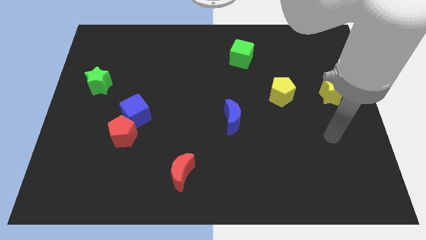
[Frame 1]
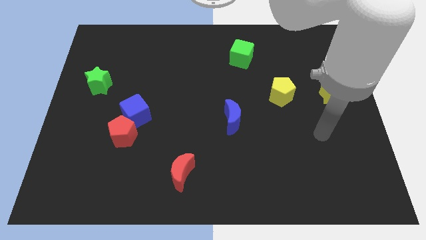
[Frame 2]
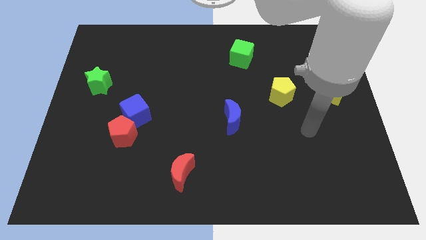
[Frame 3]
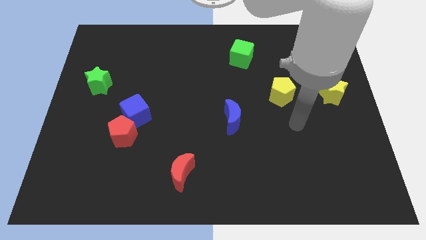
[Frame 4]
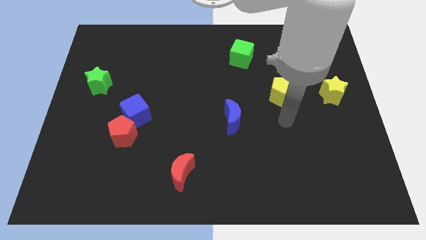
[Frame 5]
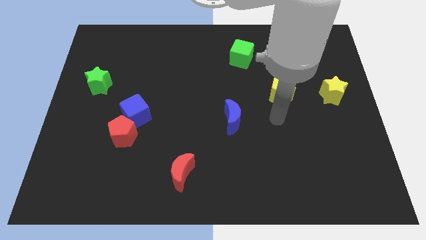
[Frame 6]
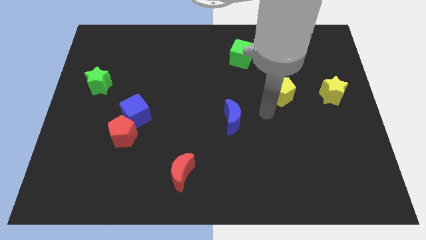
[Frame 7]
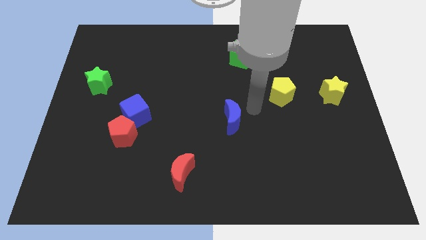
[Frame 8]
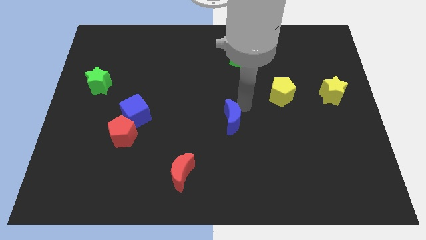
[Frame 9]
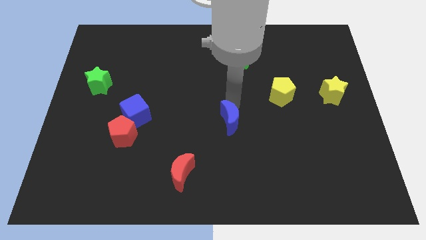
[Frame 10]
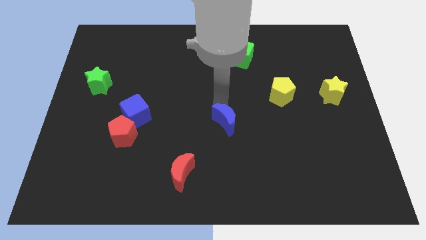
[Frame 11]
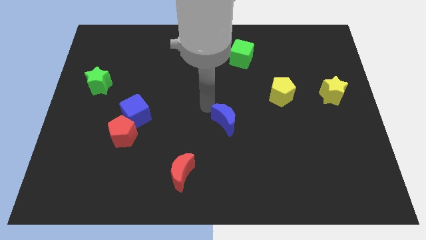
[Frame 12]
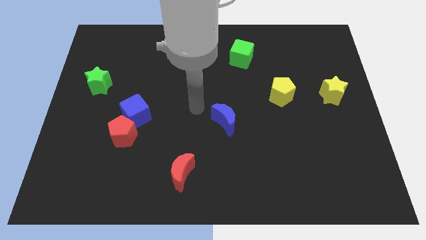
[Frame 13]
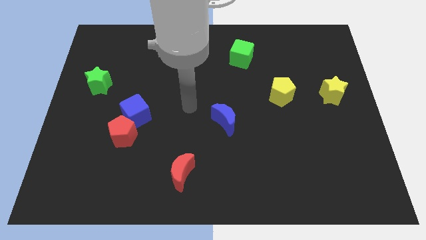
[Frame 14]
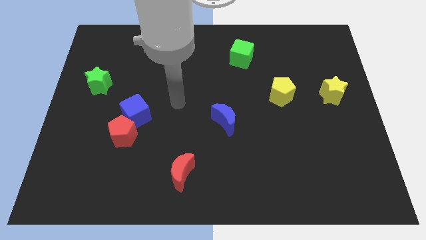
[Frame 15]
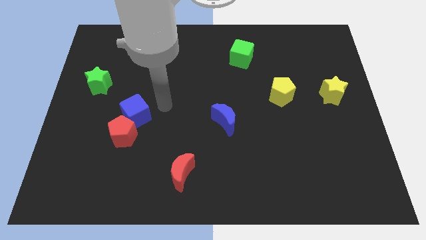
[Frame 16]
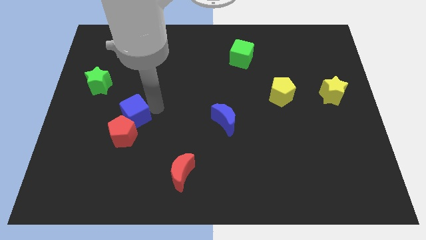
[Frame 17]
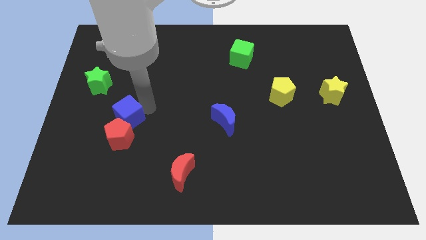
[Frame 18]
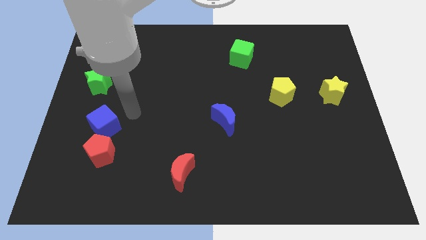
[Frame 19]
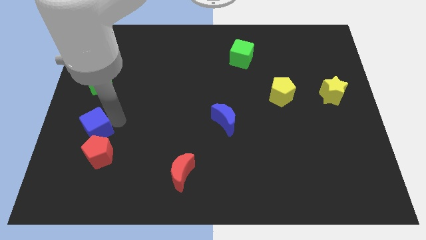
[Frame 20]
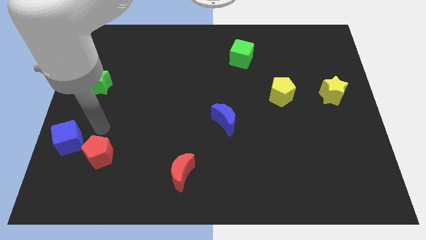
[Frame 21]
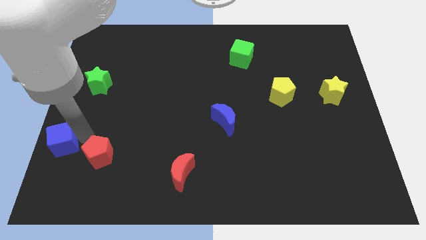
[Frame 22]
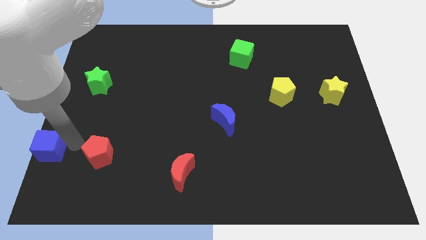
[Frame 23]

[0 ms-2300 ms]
separate the red pentagon from the blue cube

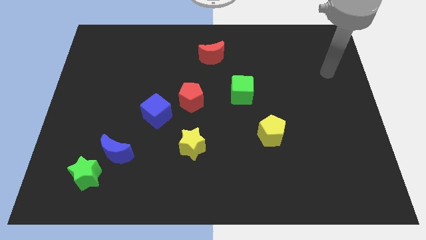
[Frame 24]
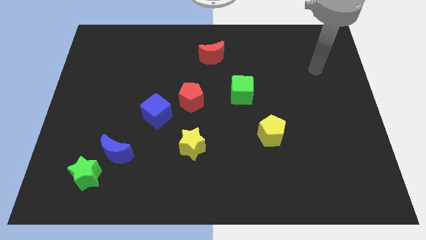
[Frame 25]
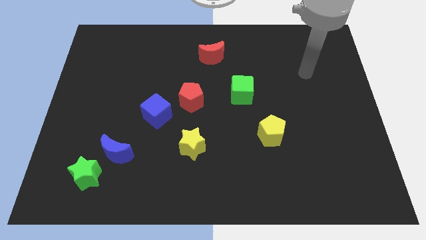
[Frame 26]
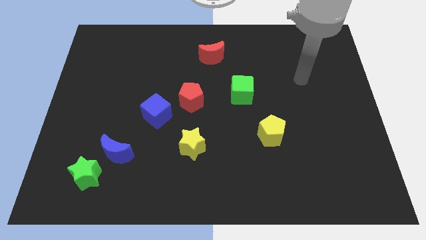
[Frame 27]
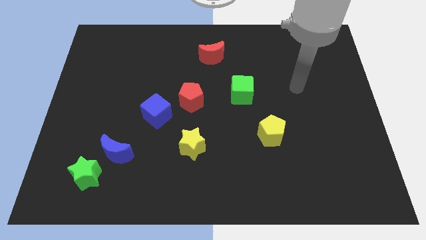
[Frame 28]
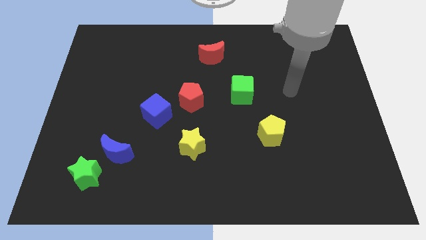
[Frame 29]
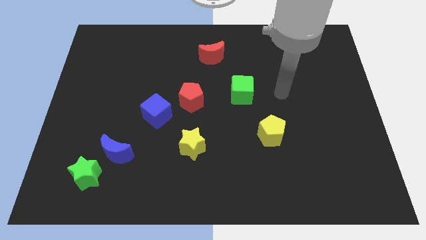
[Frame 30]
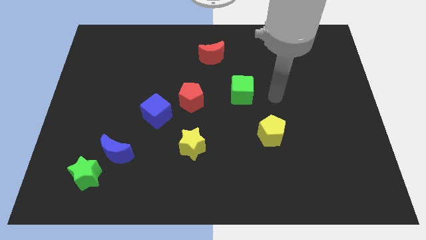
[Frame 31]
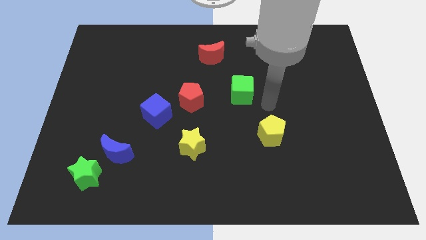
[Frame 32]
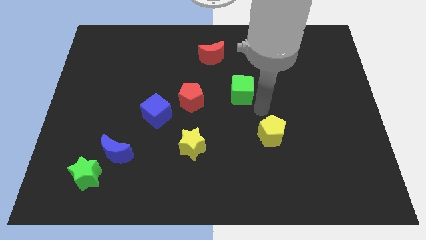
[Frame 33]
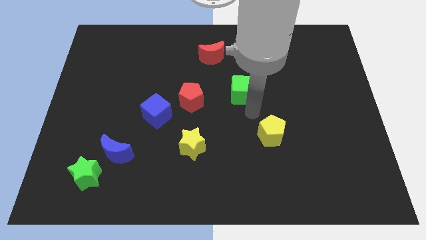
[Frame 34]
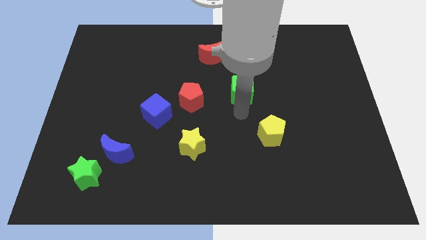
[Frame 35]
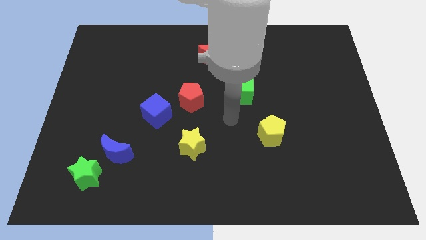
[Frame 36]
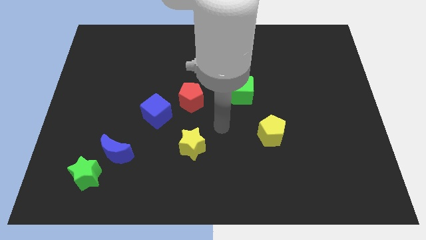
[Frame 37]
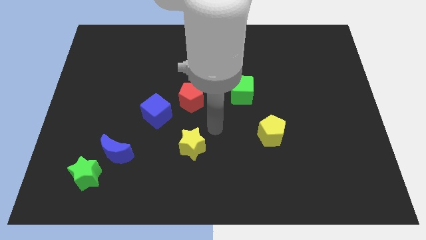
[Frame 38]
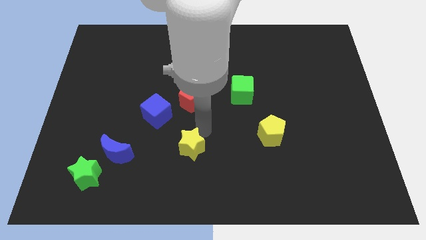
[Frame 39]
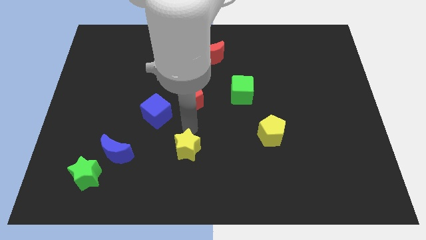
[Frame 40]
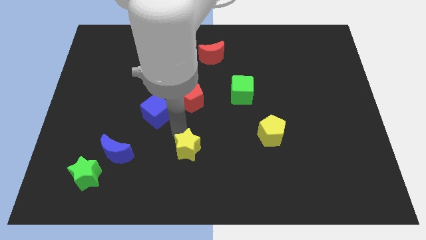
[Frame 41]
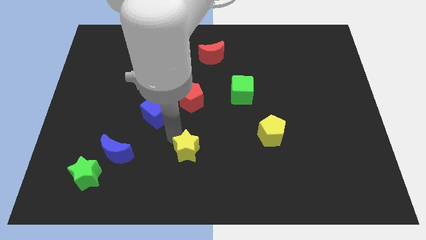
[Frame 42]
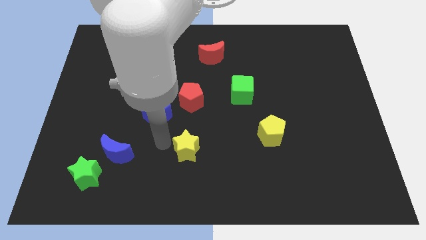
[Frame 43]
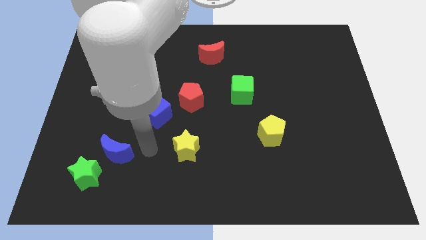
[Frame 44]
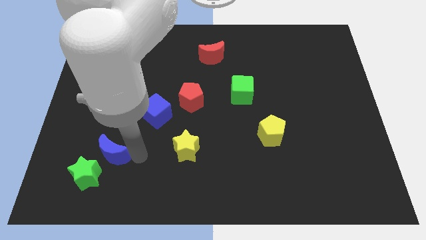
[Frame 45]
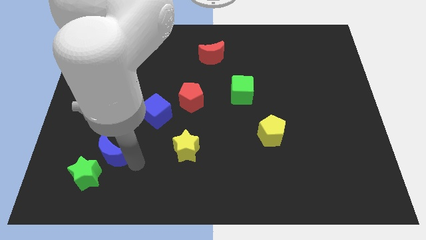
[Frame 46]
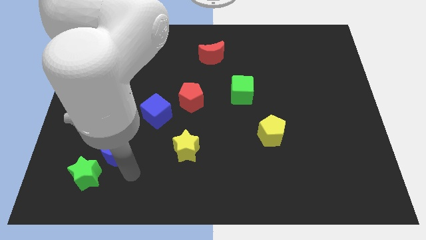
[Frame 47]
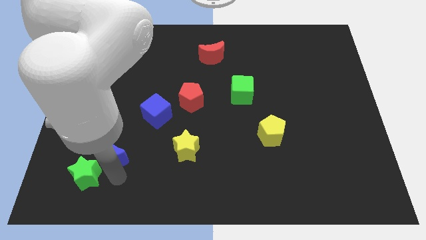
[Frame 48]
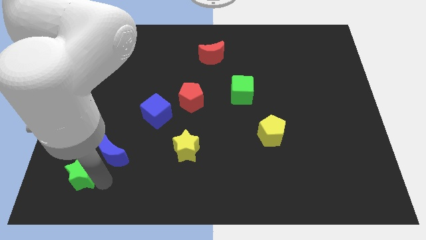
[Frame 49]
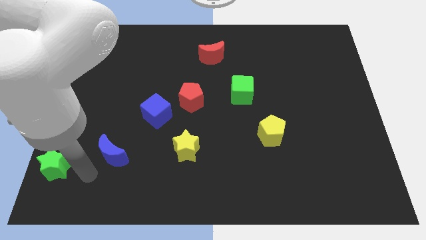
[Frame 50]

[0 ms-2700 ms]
pull the blue moon apart from the green star

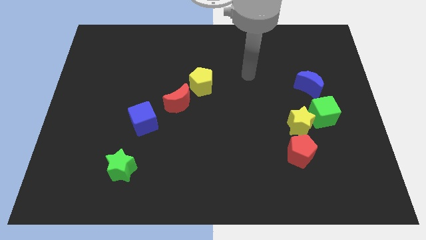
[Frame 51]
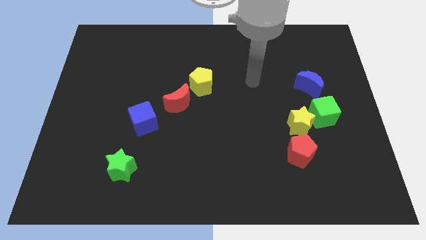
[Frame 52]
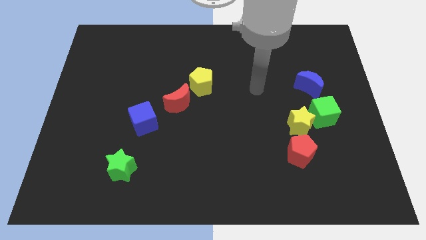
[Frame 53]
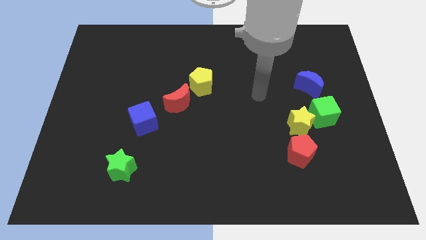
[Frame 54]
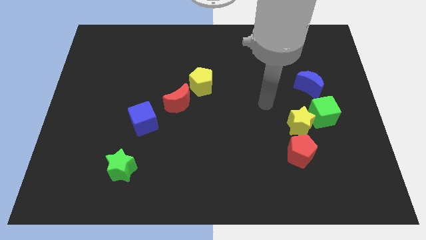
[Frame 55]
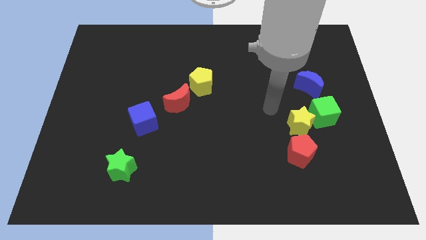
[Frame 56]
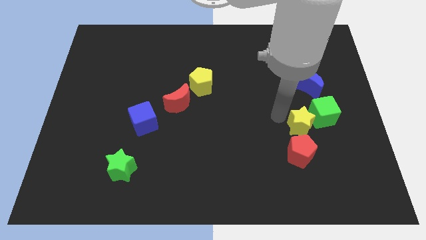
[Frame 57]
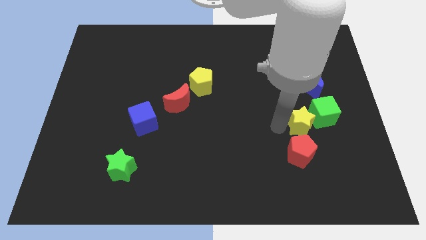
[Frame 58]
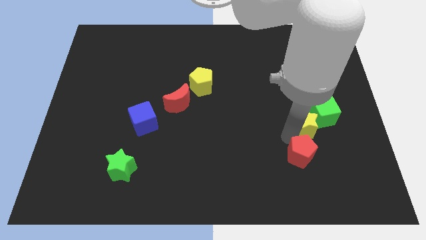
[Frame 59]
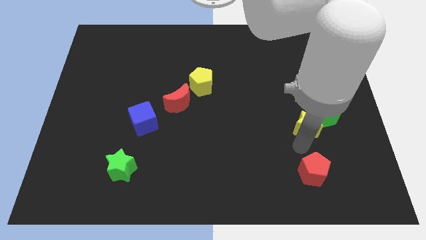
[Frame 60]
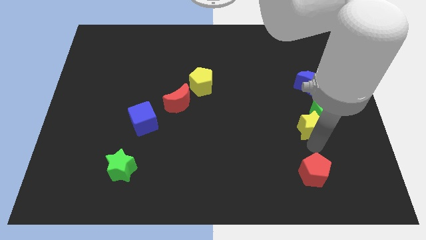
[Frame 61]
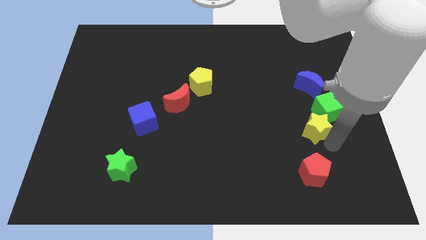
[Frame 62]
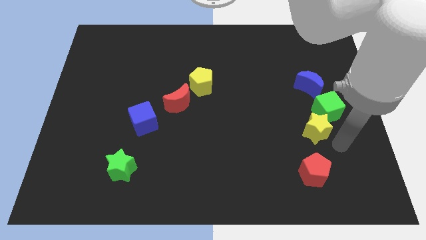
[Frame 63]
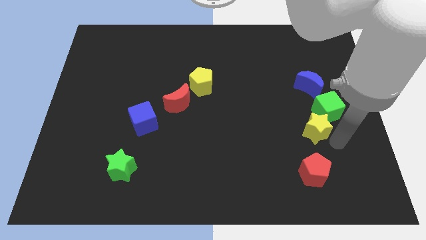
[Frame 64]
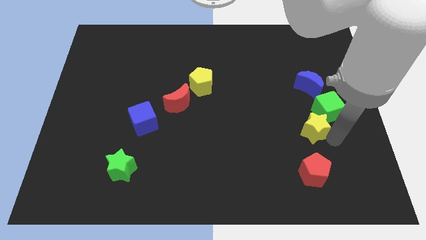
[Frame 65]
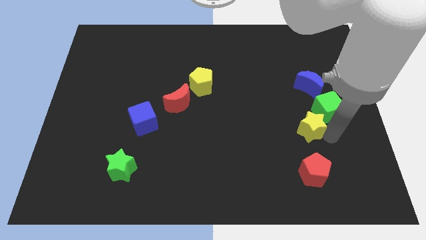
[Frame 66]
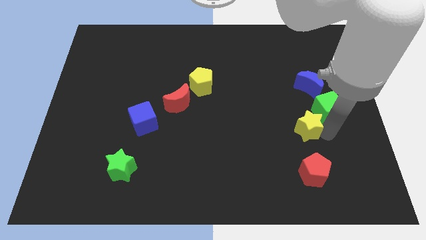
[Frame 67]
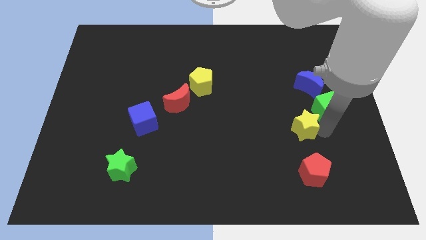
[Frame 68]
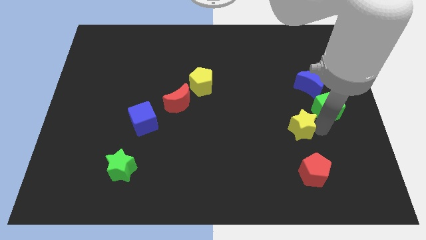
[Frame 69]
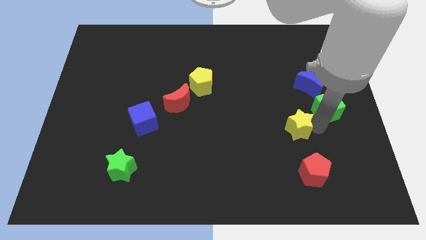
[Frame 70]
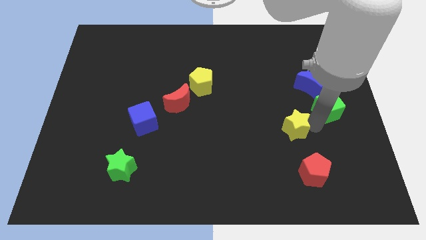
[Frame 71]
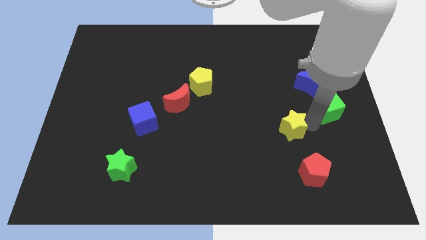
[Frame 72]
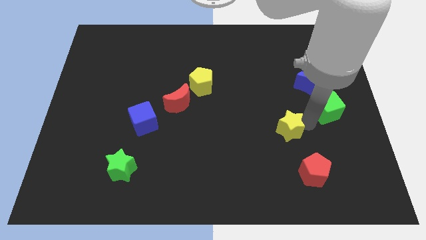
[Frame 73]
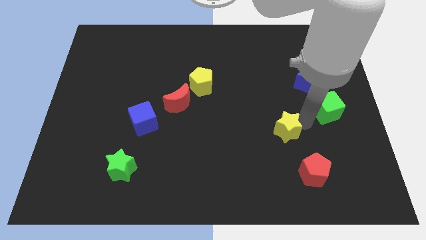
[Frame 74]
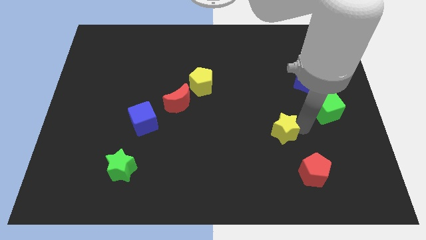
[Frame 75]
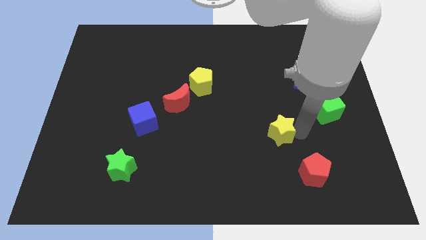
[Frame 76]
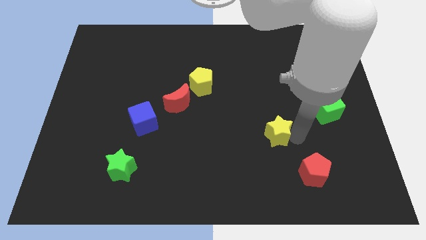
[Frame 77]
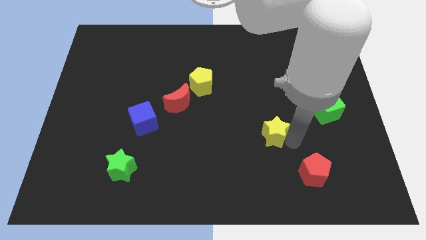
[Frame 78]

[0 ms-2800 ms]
pull the yellow star apart from the green cube and red pentagon

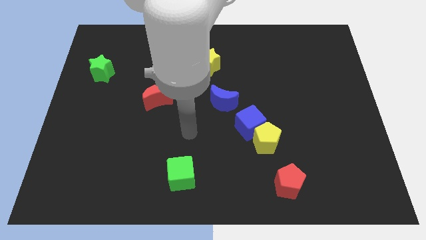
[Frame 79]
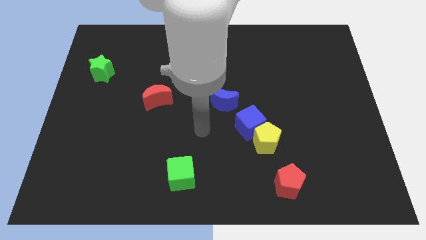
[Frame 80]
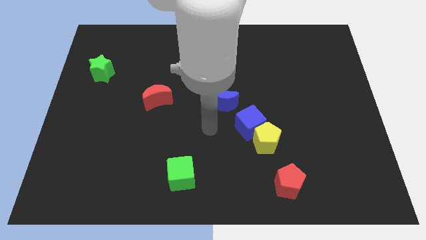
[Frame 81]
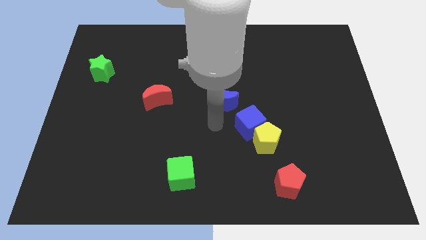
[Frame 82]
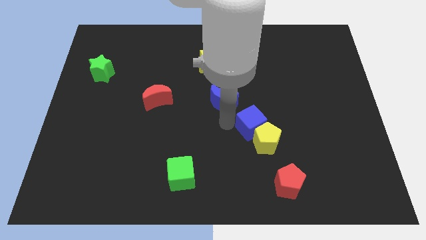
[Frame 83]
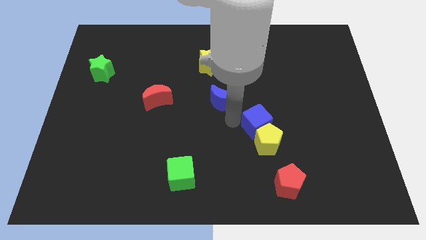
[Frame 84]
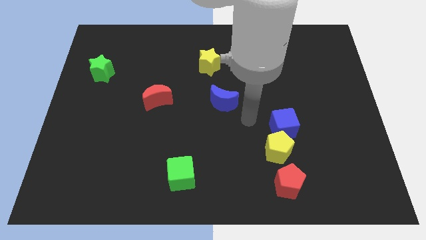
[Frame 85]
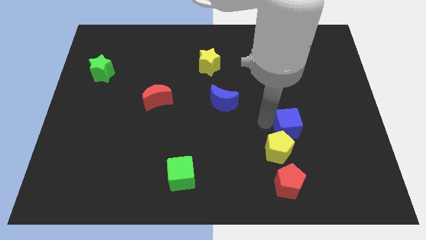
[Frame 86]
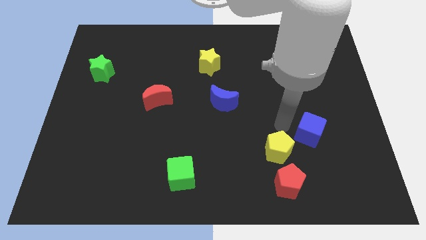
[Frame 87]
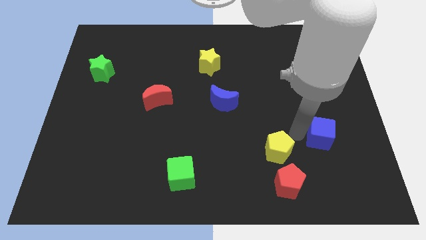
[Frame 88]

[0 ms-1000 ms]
move the yellow pentagon away from the blue cube

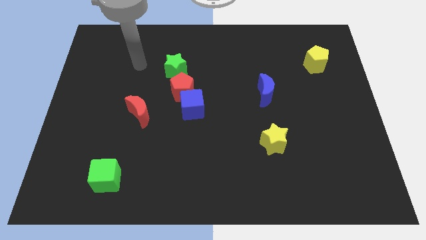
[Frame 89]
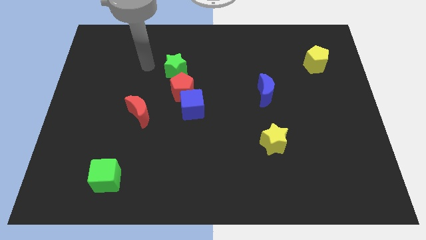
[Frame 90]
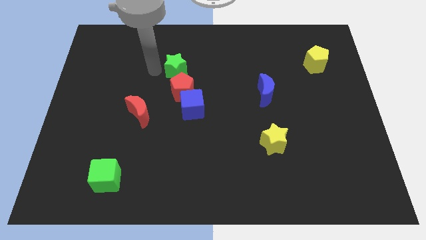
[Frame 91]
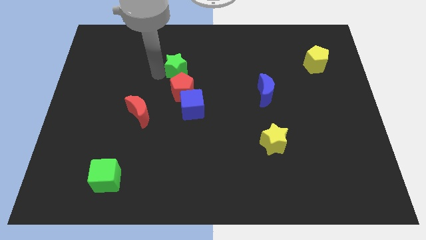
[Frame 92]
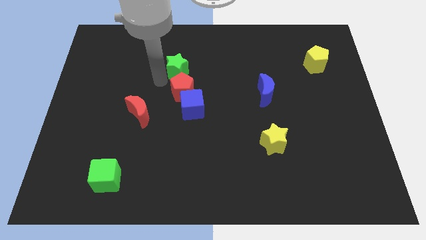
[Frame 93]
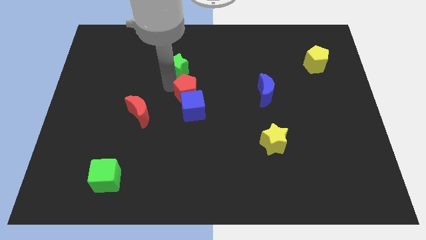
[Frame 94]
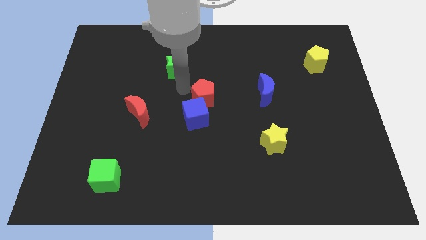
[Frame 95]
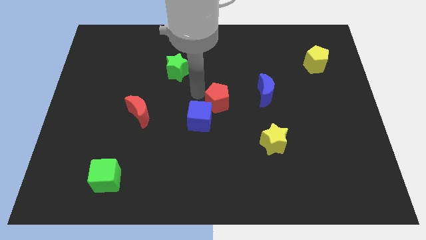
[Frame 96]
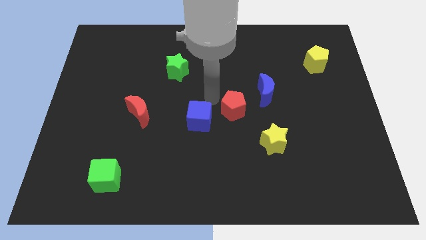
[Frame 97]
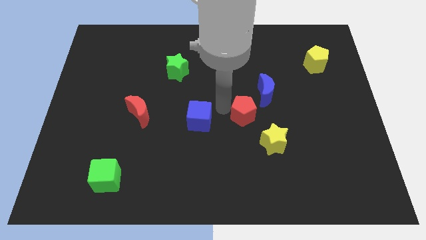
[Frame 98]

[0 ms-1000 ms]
separate the blue cube from the red pentagon
